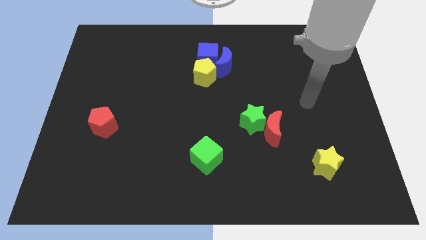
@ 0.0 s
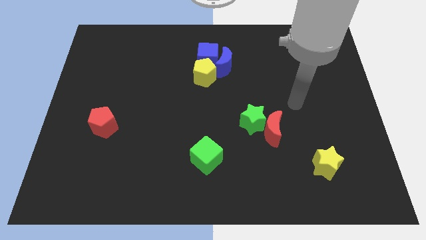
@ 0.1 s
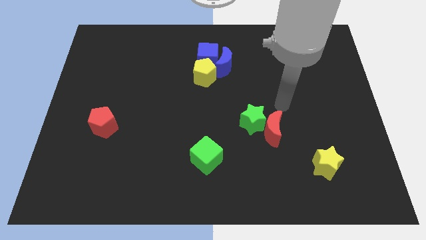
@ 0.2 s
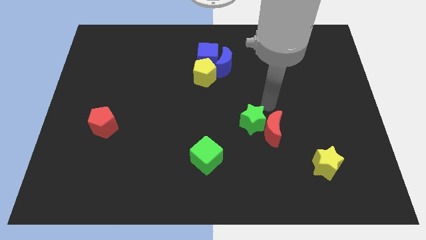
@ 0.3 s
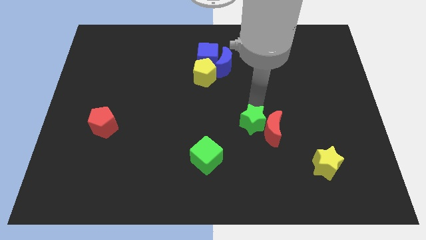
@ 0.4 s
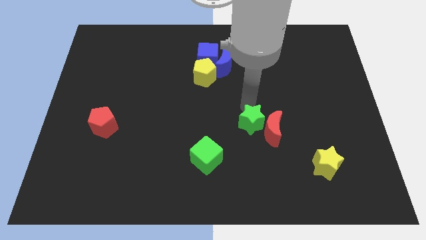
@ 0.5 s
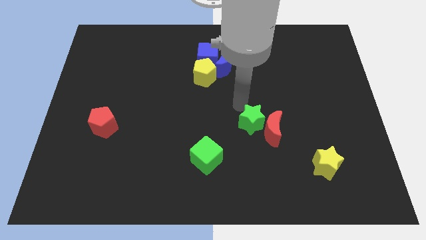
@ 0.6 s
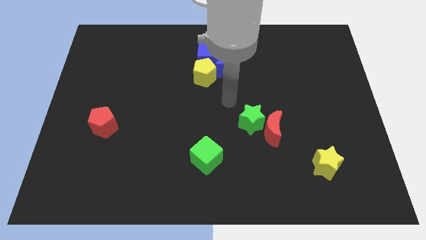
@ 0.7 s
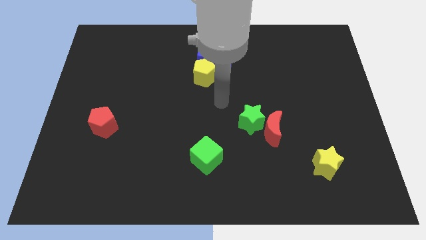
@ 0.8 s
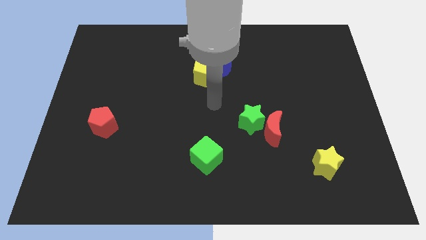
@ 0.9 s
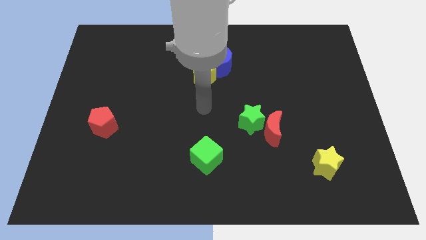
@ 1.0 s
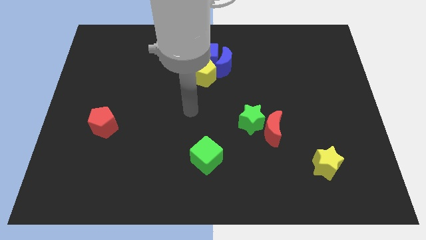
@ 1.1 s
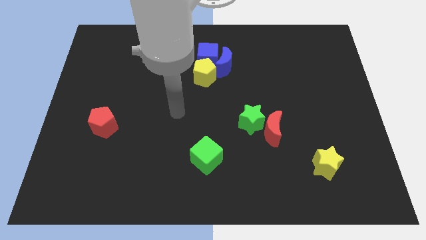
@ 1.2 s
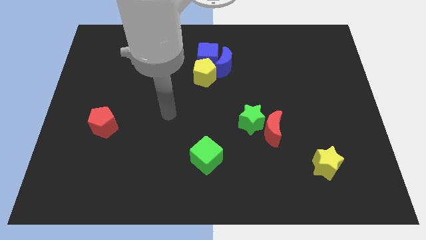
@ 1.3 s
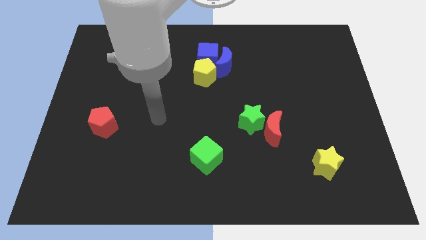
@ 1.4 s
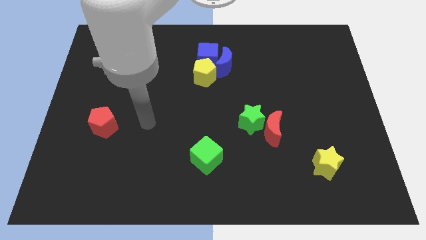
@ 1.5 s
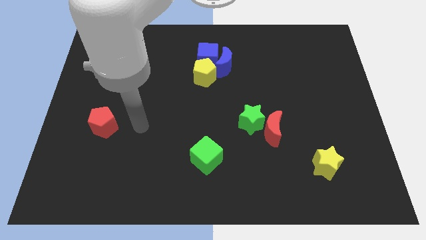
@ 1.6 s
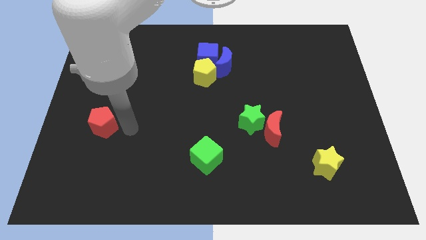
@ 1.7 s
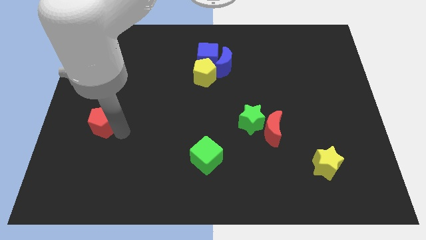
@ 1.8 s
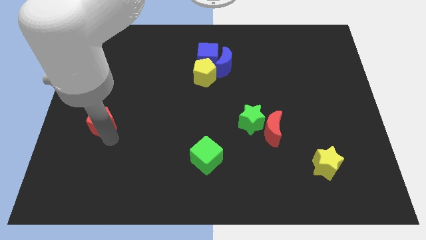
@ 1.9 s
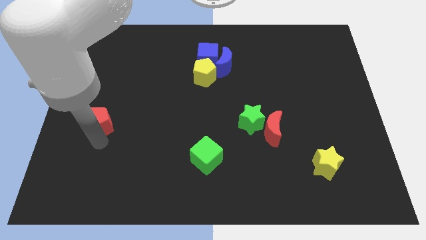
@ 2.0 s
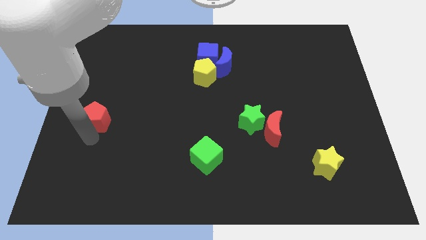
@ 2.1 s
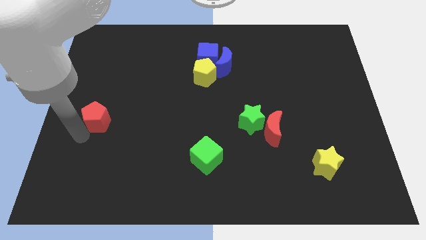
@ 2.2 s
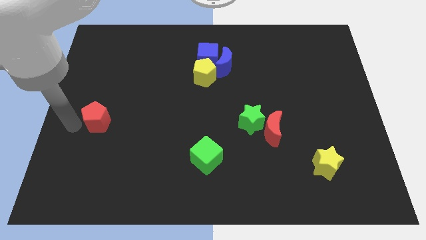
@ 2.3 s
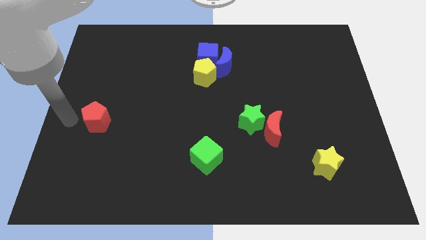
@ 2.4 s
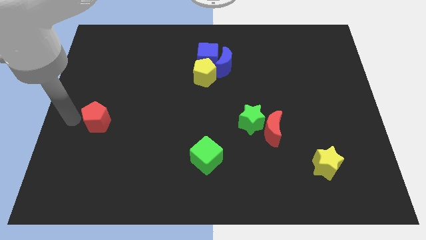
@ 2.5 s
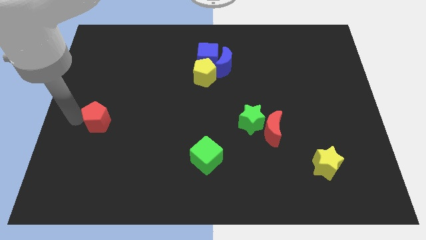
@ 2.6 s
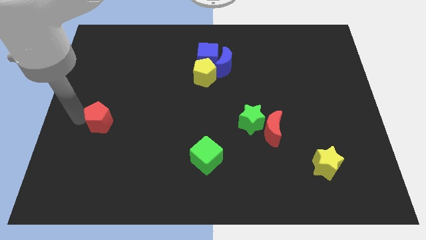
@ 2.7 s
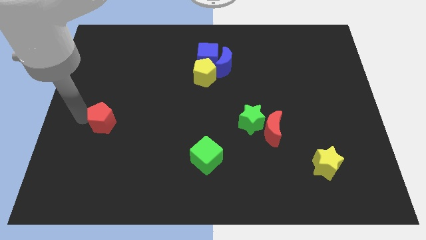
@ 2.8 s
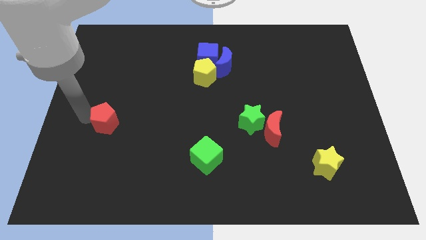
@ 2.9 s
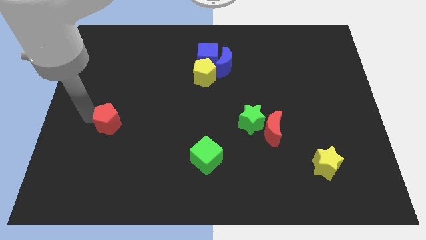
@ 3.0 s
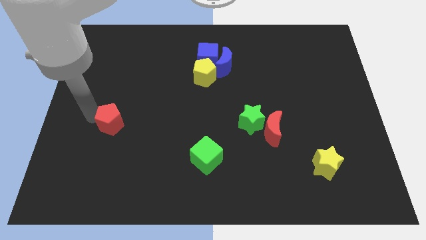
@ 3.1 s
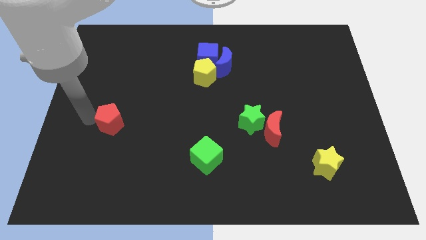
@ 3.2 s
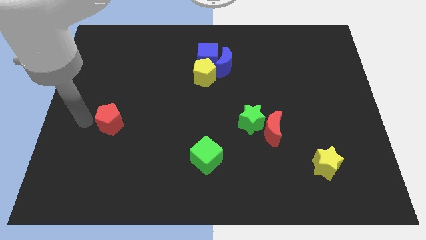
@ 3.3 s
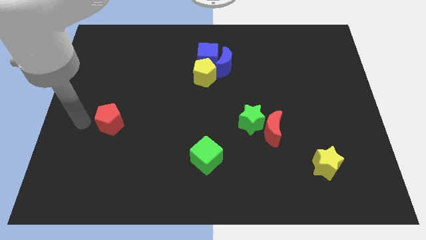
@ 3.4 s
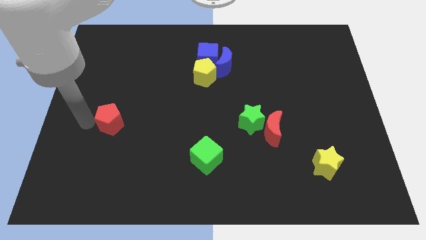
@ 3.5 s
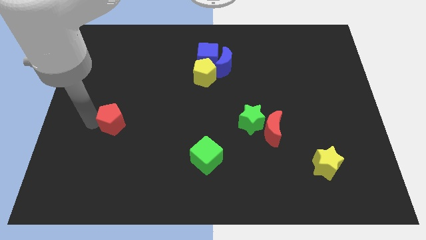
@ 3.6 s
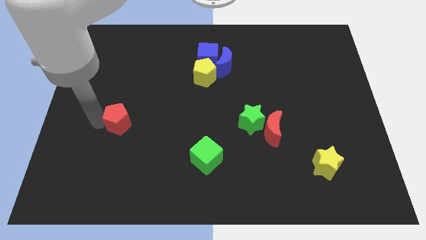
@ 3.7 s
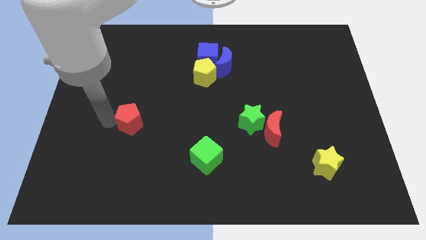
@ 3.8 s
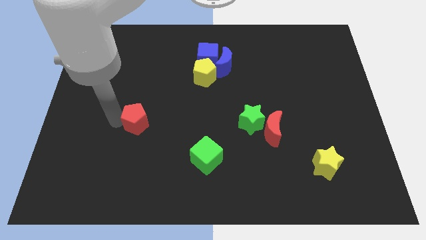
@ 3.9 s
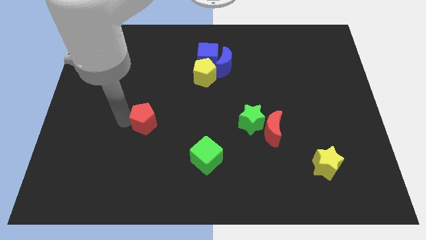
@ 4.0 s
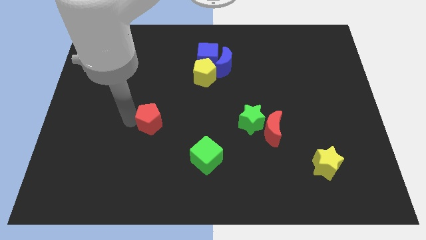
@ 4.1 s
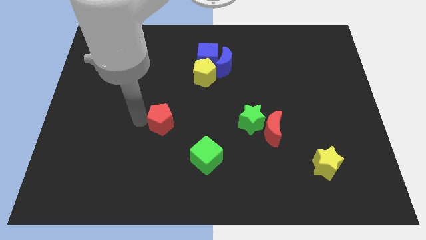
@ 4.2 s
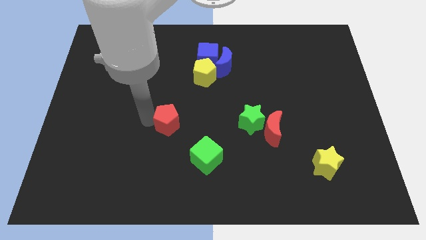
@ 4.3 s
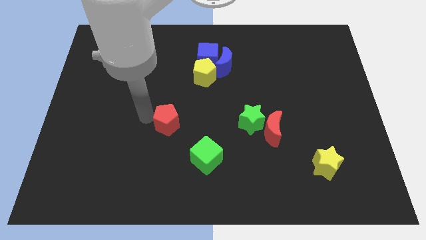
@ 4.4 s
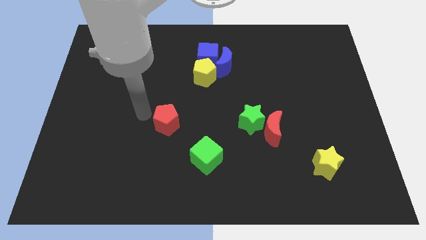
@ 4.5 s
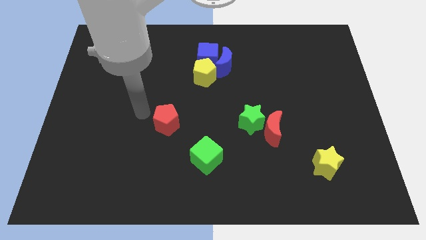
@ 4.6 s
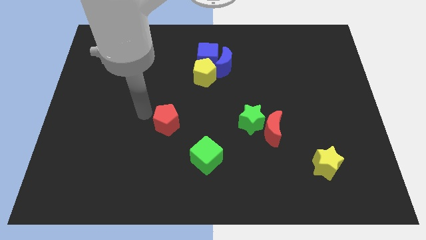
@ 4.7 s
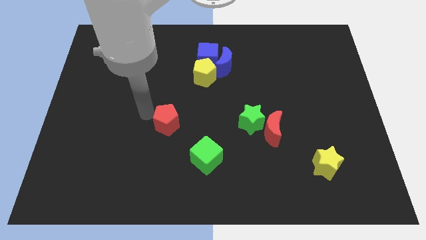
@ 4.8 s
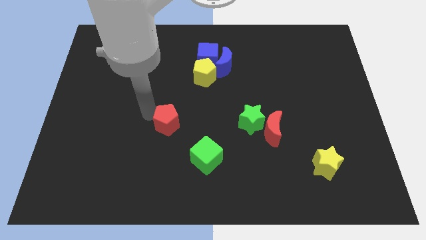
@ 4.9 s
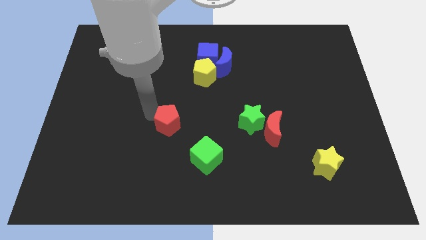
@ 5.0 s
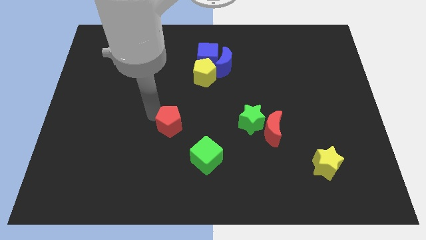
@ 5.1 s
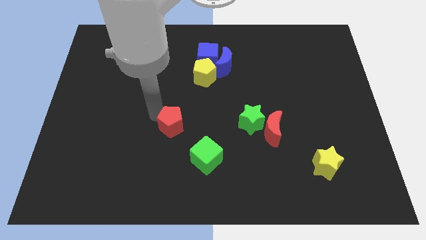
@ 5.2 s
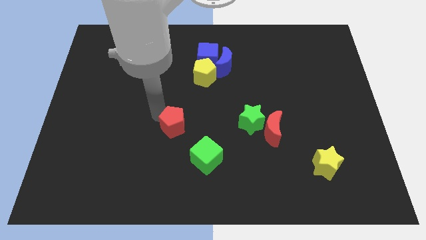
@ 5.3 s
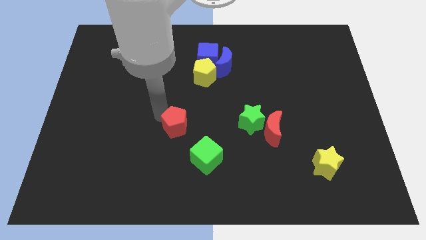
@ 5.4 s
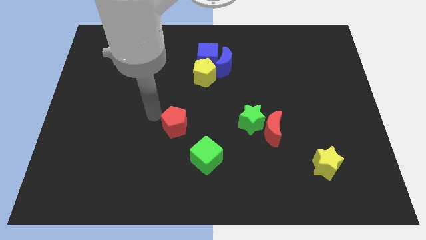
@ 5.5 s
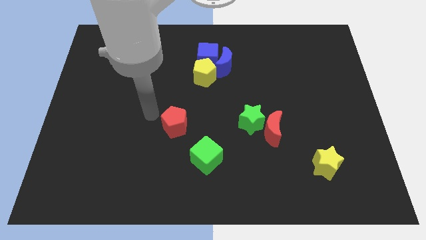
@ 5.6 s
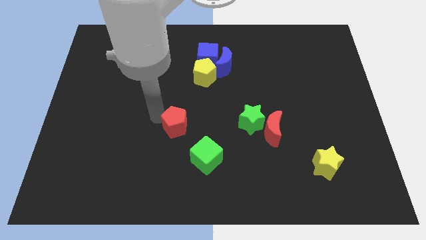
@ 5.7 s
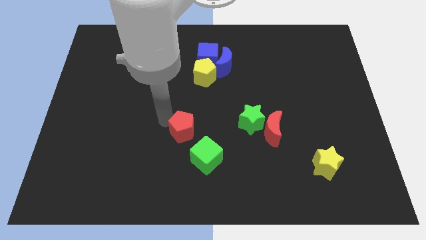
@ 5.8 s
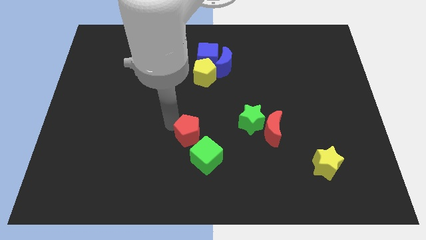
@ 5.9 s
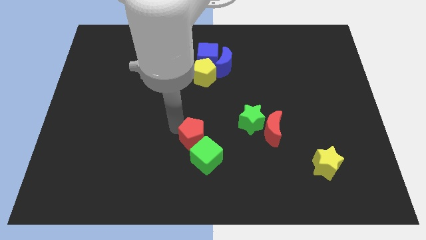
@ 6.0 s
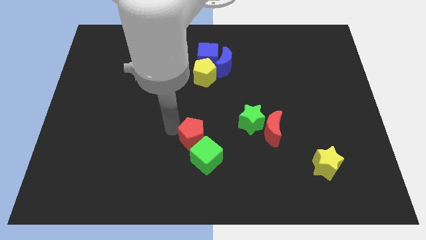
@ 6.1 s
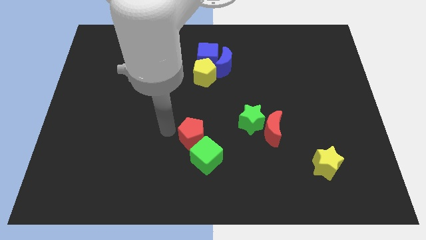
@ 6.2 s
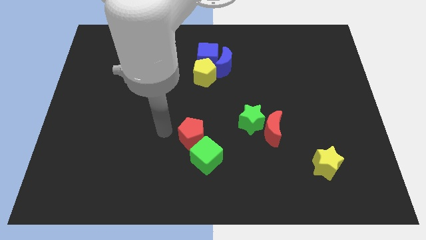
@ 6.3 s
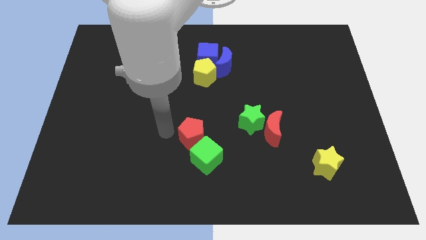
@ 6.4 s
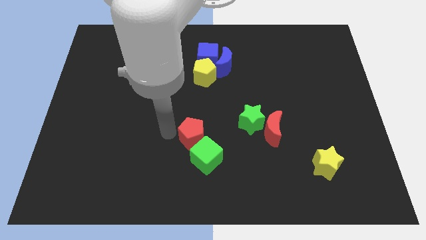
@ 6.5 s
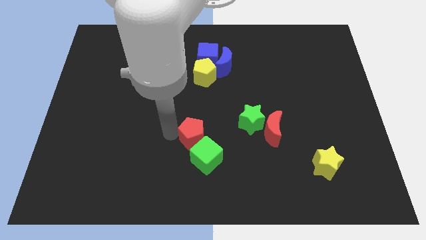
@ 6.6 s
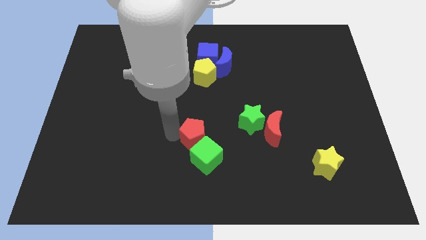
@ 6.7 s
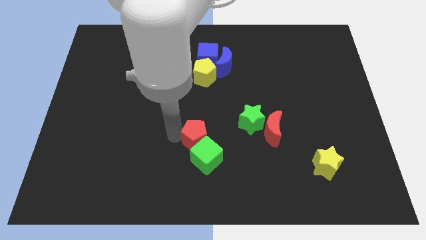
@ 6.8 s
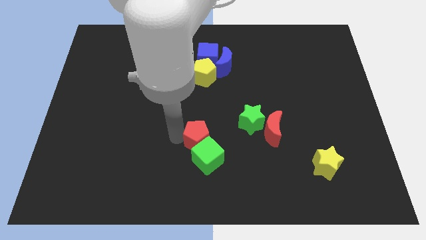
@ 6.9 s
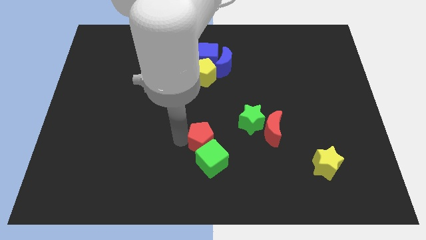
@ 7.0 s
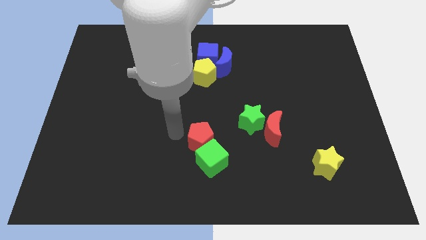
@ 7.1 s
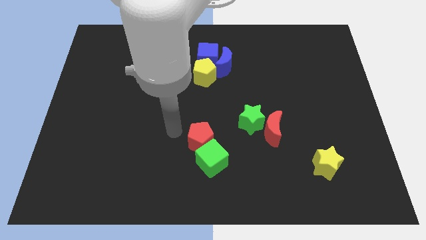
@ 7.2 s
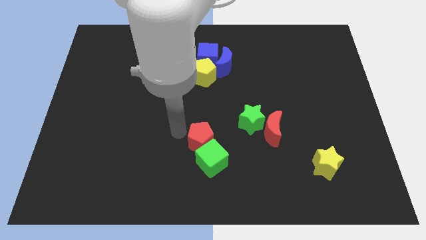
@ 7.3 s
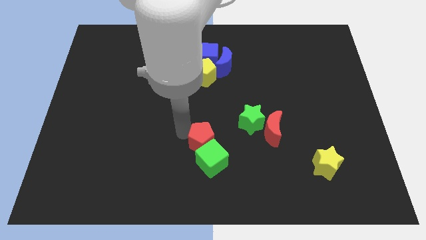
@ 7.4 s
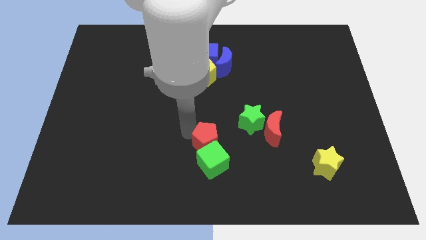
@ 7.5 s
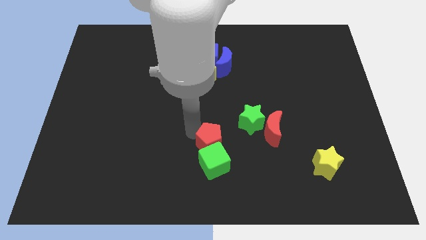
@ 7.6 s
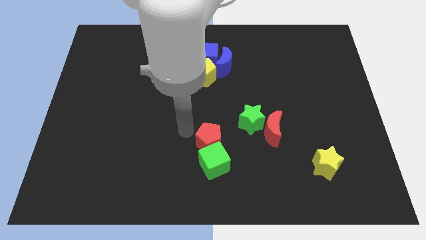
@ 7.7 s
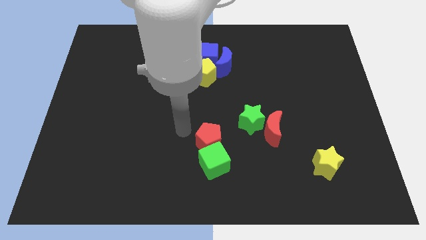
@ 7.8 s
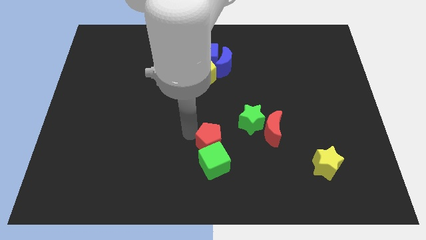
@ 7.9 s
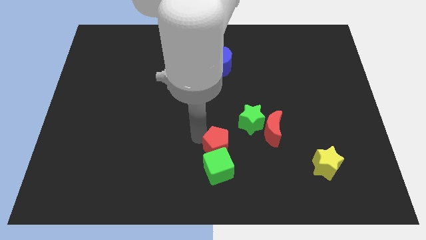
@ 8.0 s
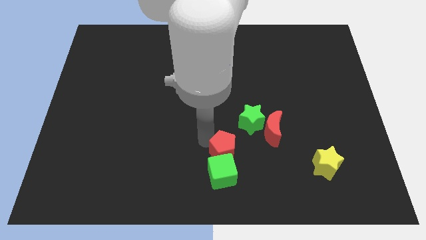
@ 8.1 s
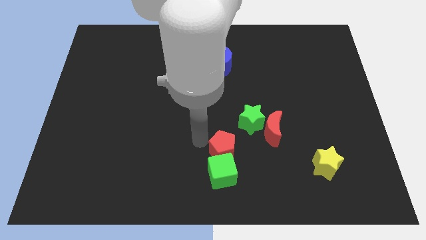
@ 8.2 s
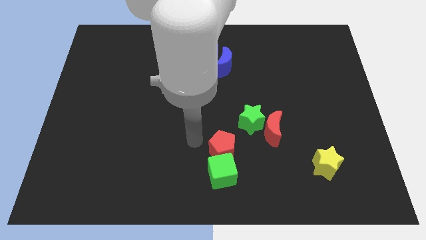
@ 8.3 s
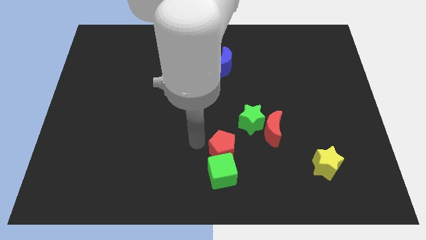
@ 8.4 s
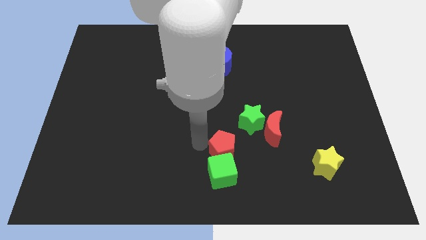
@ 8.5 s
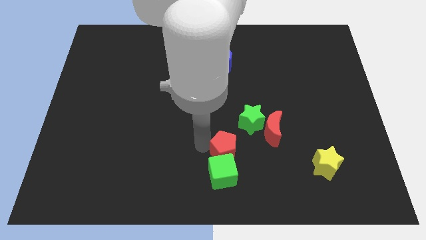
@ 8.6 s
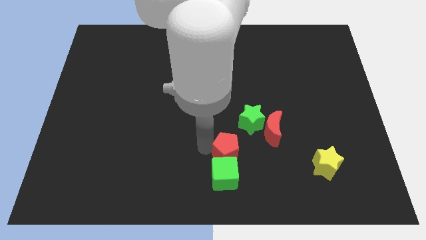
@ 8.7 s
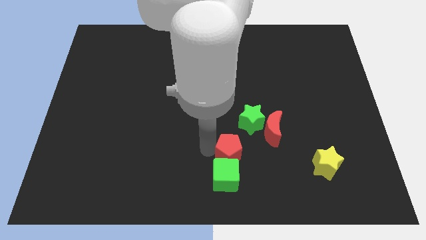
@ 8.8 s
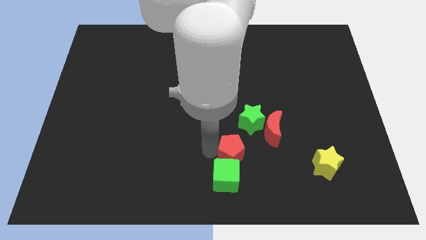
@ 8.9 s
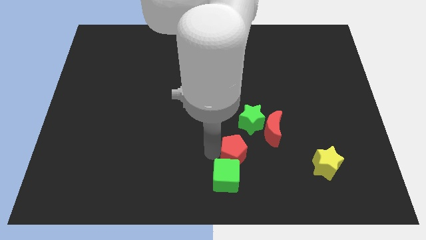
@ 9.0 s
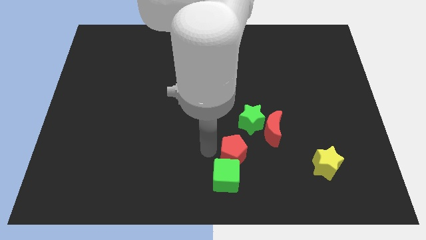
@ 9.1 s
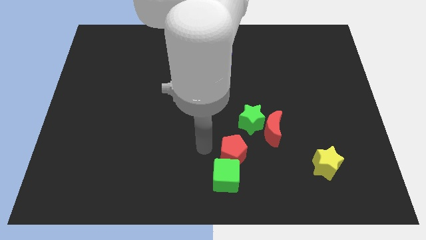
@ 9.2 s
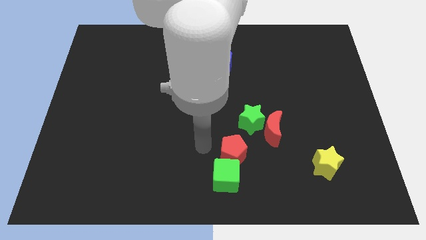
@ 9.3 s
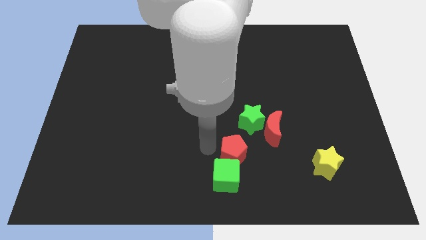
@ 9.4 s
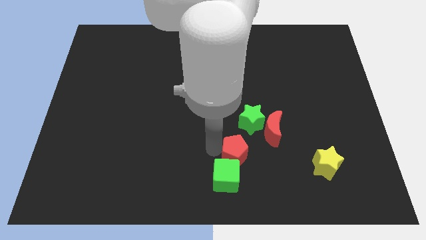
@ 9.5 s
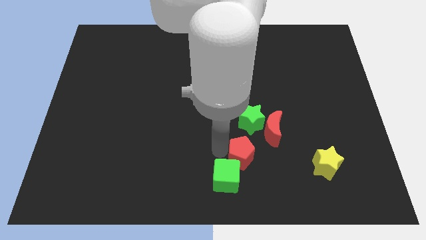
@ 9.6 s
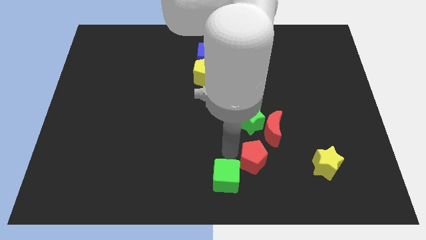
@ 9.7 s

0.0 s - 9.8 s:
push the red pentagon below the red moon
